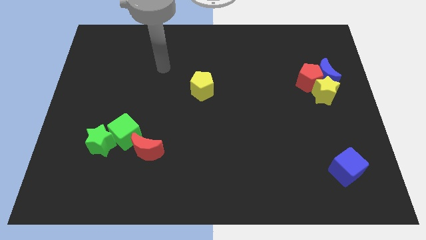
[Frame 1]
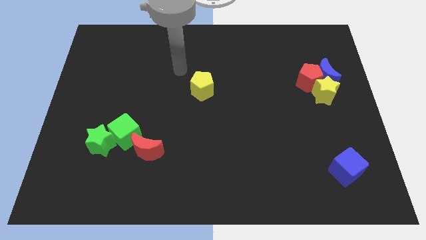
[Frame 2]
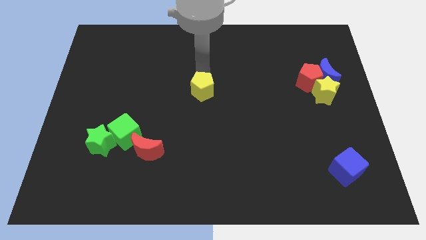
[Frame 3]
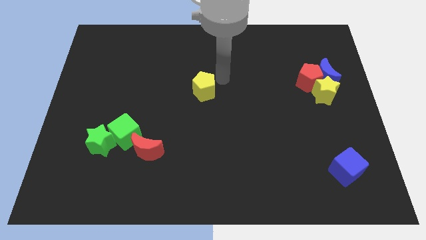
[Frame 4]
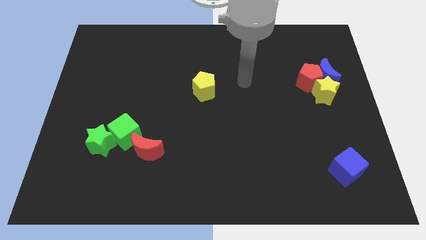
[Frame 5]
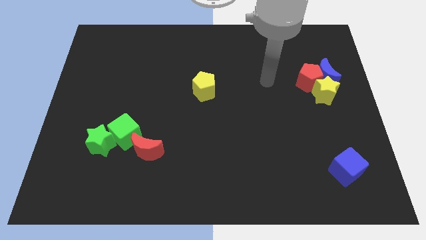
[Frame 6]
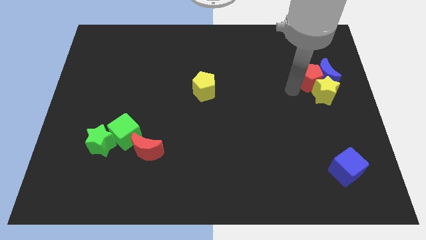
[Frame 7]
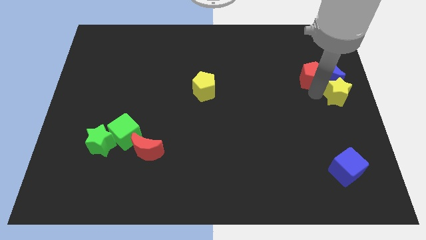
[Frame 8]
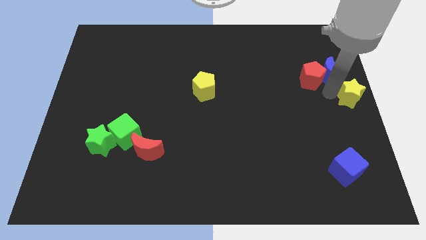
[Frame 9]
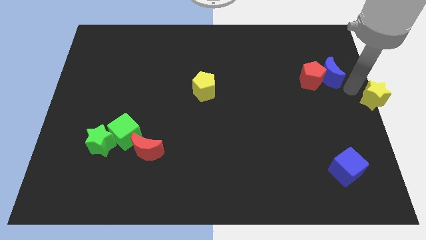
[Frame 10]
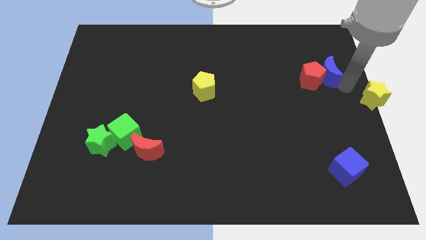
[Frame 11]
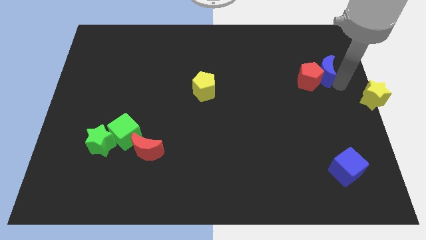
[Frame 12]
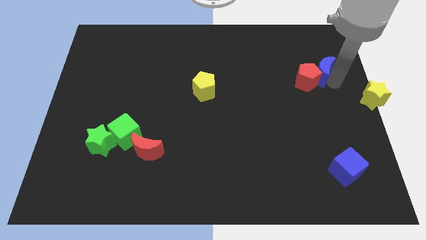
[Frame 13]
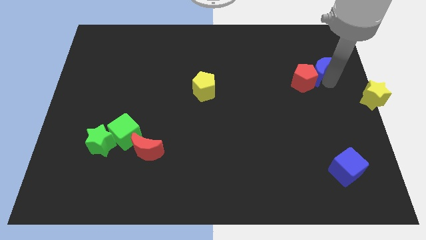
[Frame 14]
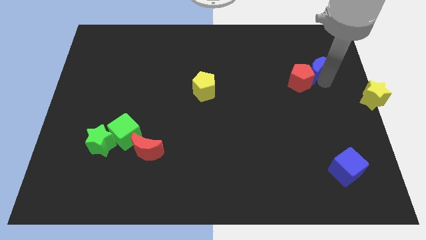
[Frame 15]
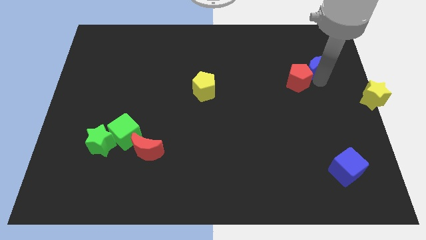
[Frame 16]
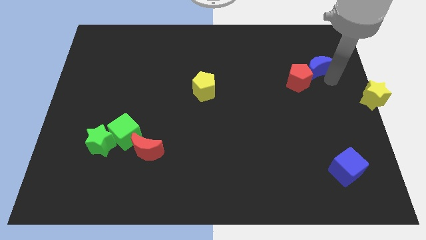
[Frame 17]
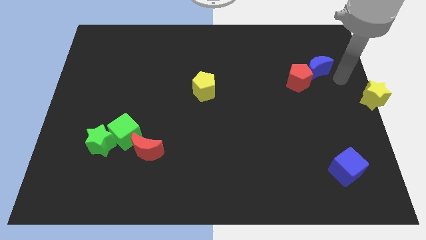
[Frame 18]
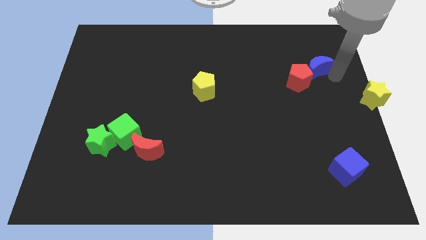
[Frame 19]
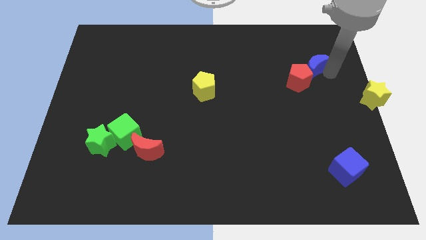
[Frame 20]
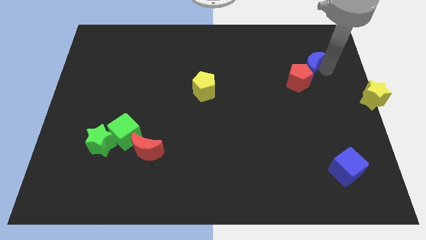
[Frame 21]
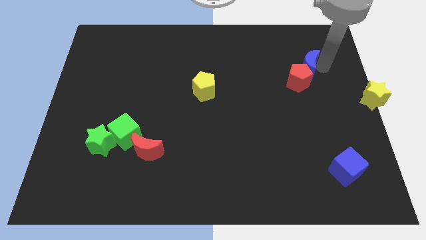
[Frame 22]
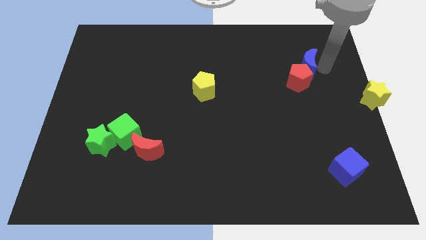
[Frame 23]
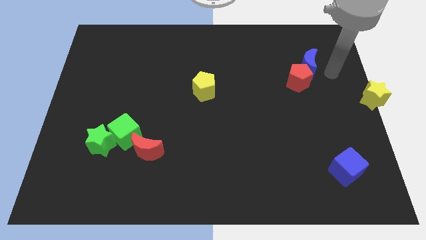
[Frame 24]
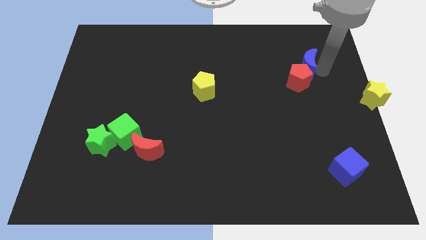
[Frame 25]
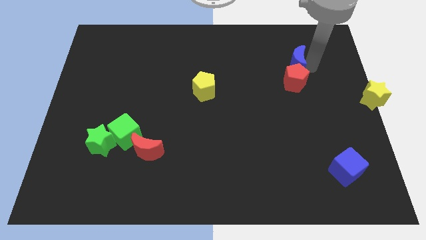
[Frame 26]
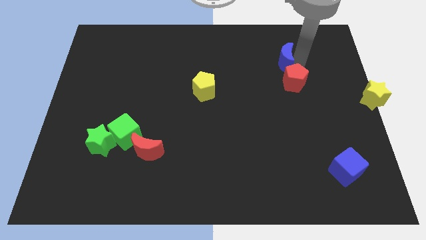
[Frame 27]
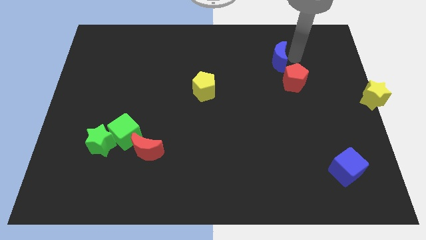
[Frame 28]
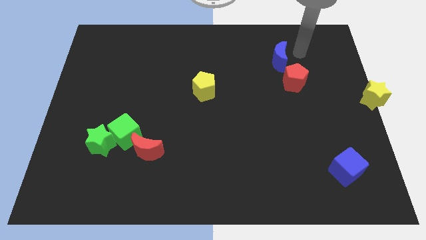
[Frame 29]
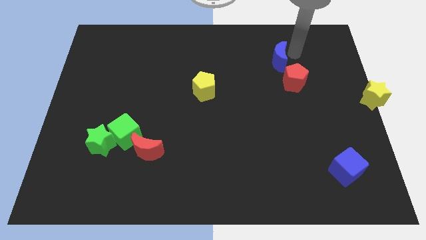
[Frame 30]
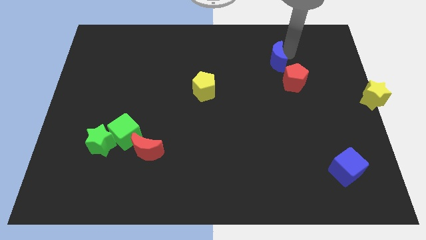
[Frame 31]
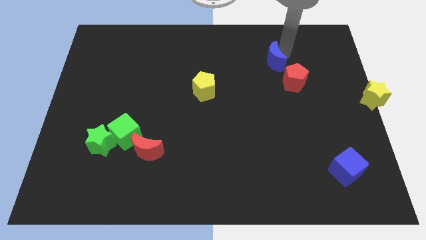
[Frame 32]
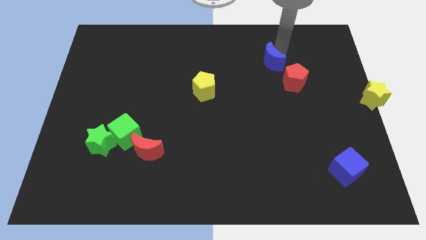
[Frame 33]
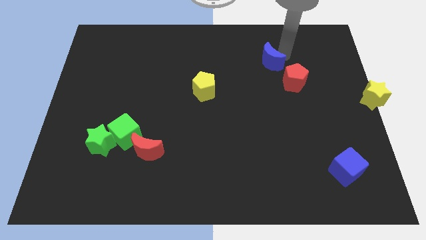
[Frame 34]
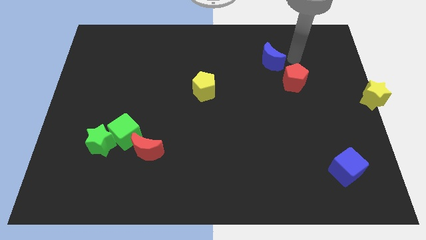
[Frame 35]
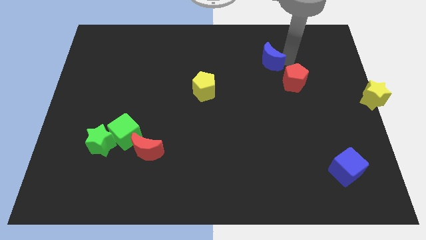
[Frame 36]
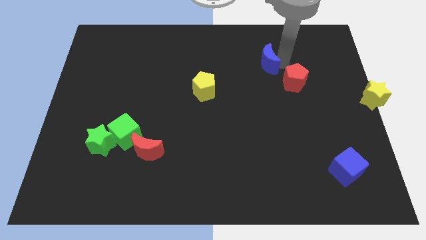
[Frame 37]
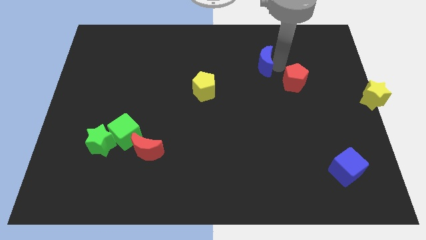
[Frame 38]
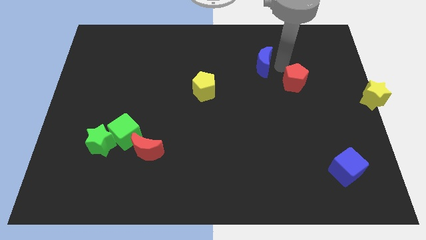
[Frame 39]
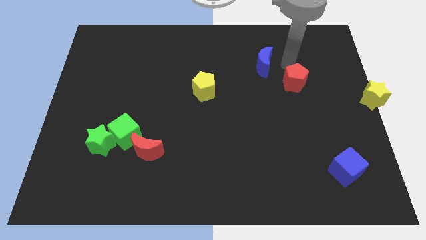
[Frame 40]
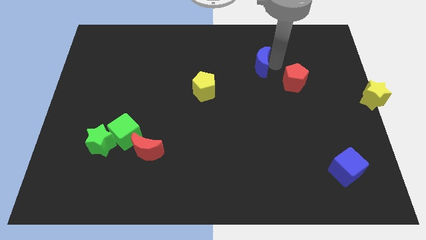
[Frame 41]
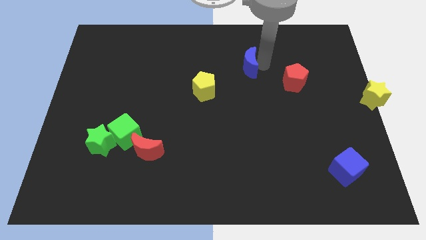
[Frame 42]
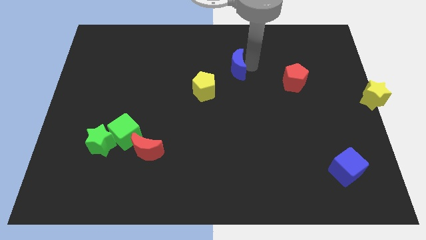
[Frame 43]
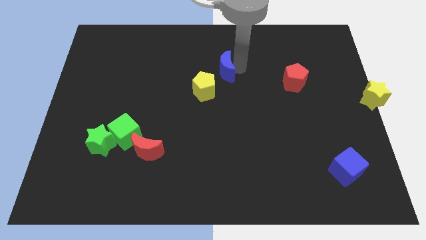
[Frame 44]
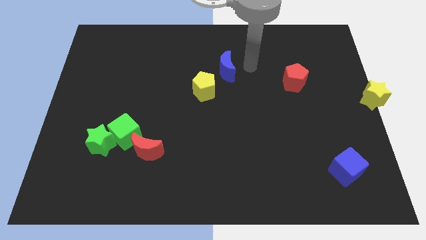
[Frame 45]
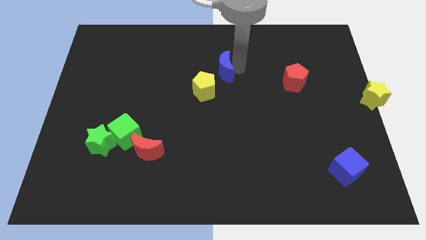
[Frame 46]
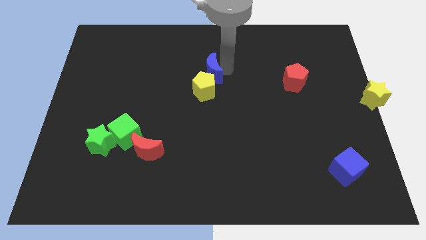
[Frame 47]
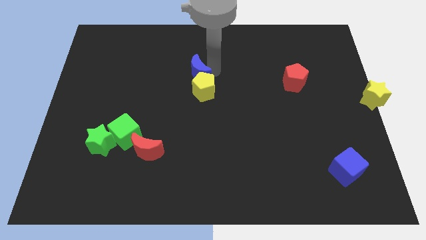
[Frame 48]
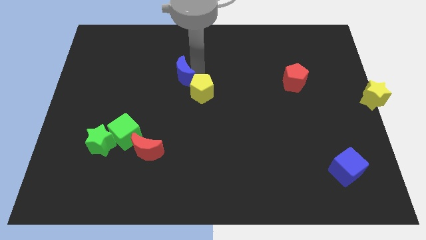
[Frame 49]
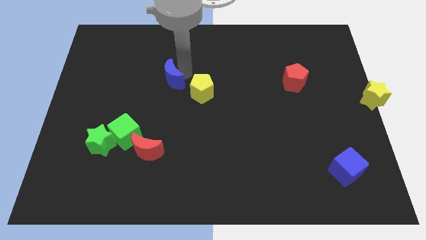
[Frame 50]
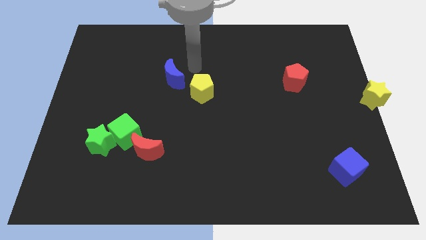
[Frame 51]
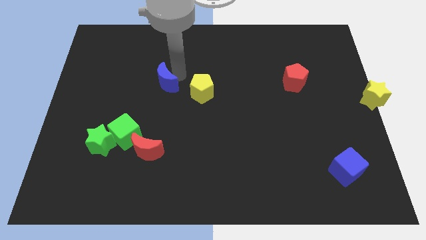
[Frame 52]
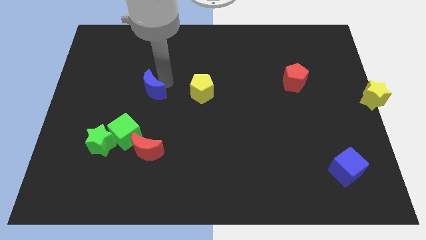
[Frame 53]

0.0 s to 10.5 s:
put the blue moon to the top of the green cube

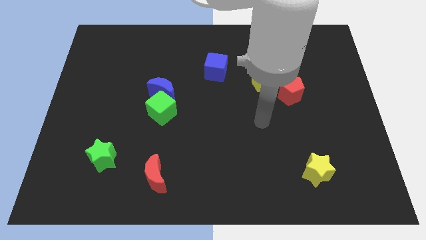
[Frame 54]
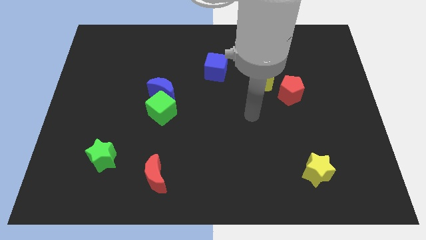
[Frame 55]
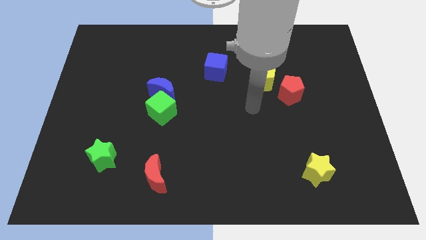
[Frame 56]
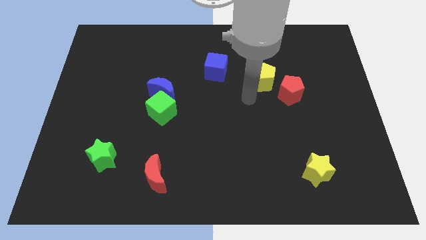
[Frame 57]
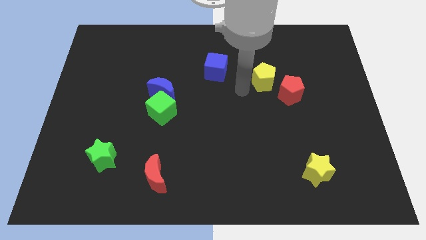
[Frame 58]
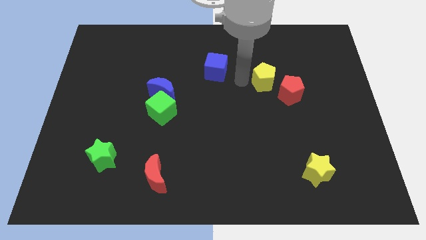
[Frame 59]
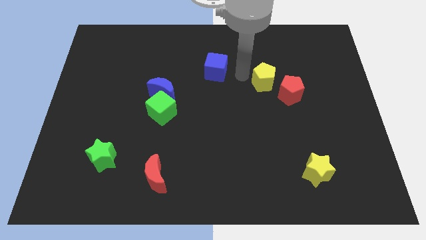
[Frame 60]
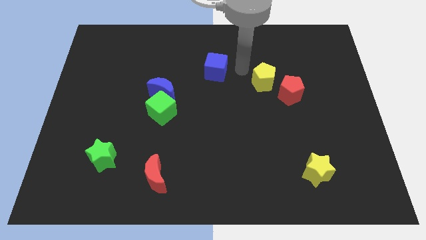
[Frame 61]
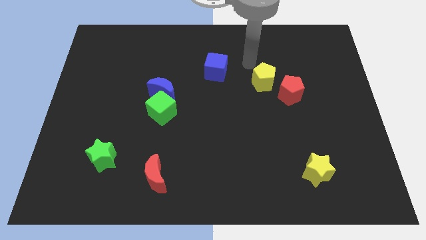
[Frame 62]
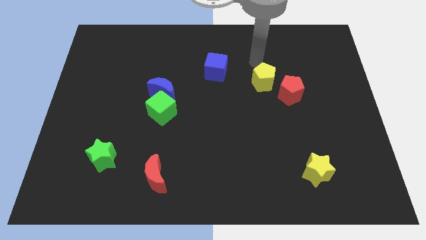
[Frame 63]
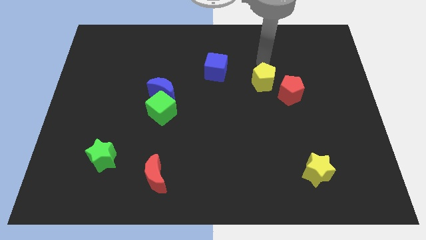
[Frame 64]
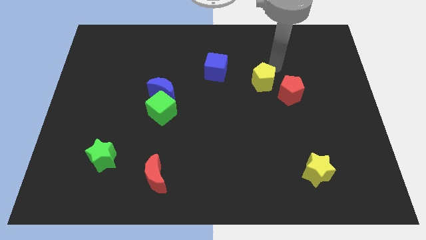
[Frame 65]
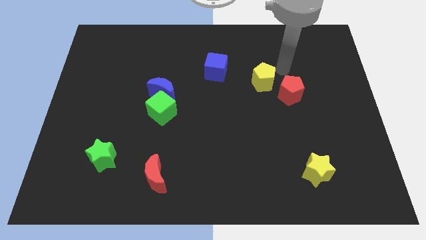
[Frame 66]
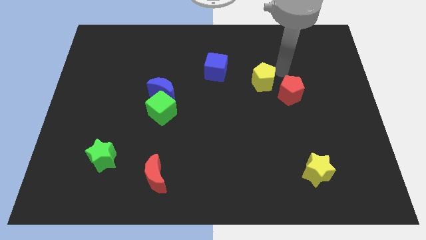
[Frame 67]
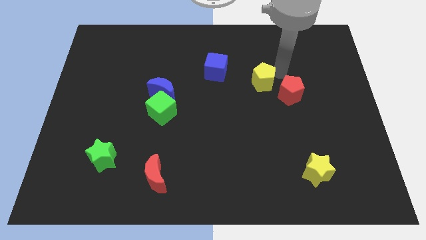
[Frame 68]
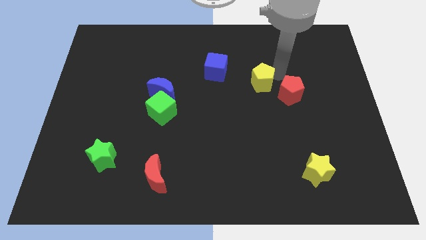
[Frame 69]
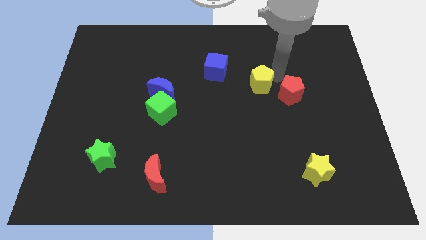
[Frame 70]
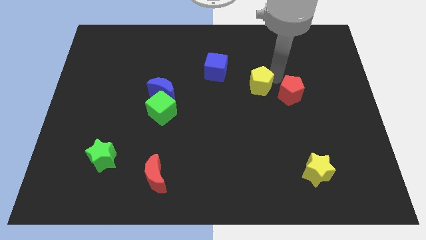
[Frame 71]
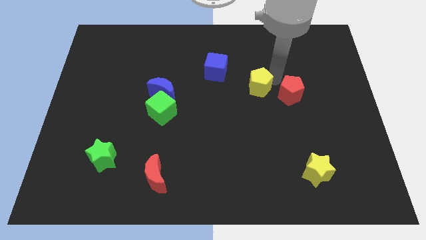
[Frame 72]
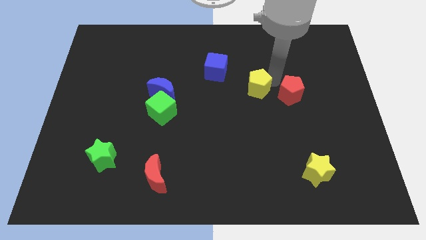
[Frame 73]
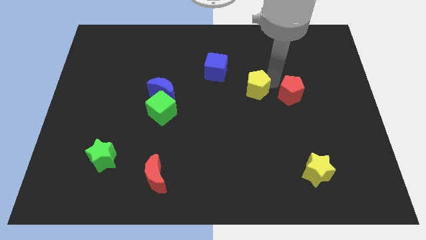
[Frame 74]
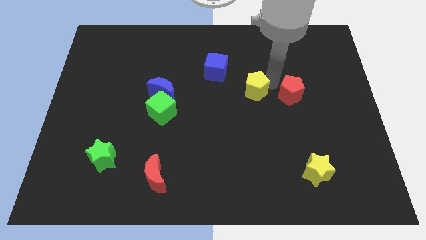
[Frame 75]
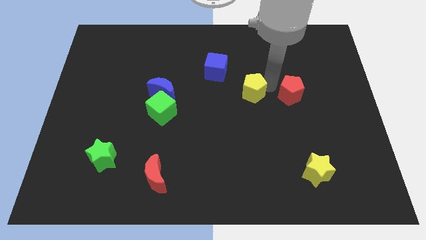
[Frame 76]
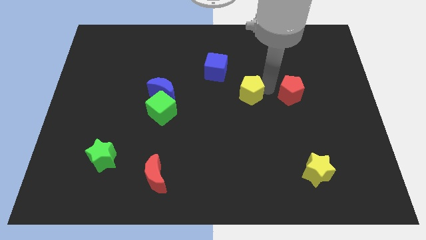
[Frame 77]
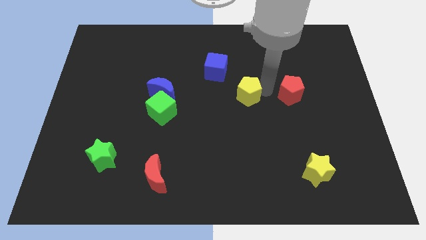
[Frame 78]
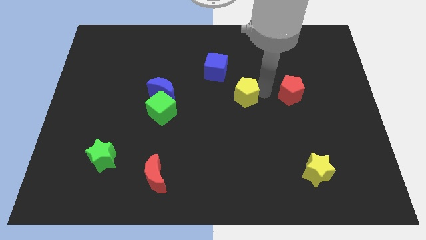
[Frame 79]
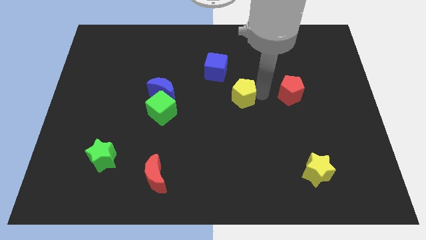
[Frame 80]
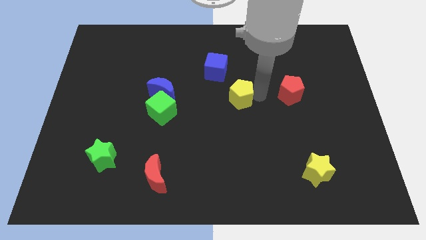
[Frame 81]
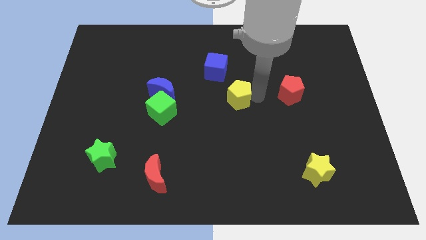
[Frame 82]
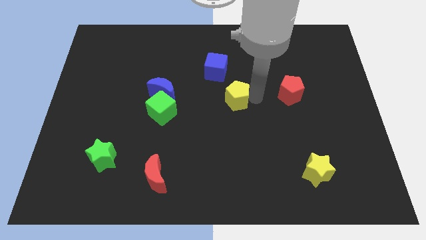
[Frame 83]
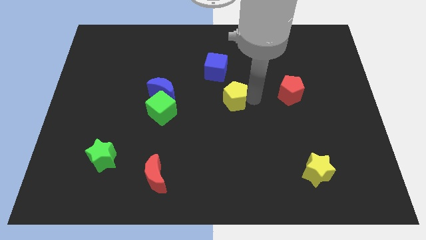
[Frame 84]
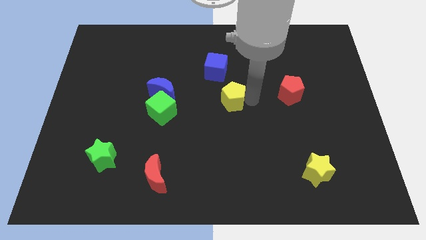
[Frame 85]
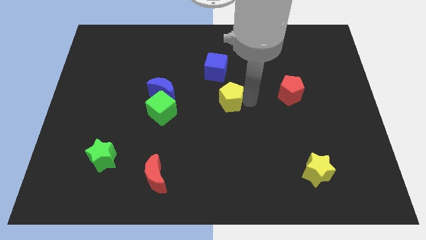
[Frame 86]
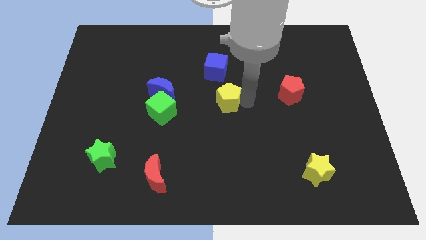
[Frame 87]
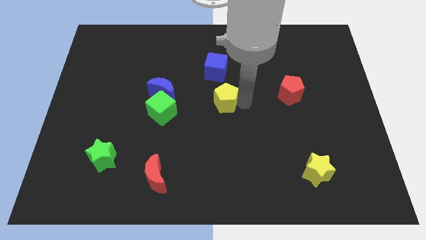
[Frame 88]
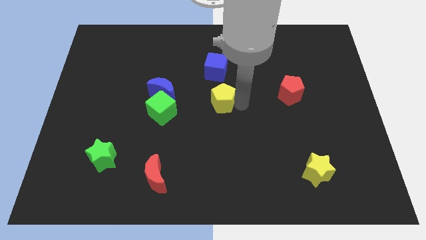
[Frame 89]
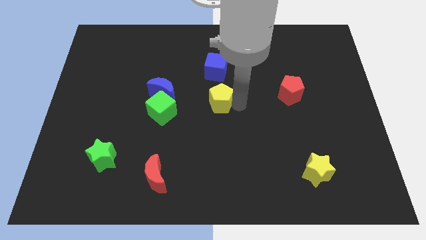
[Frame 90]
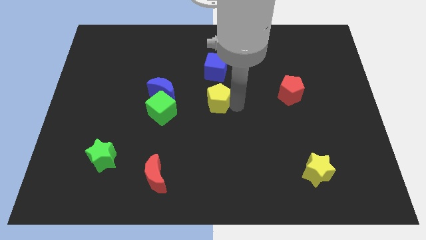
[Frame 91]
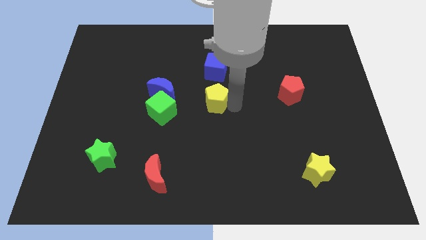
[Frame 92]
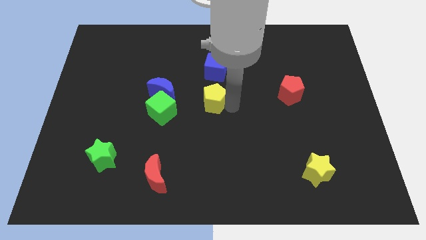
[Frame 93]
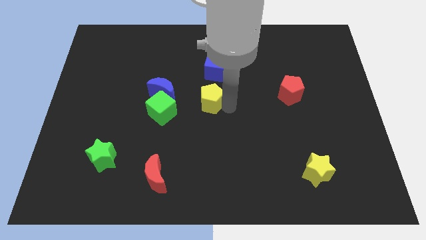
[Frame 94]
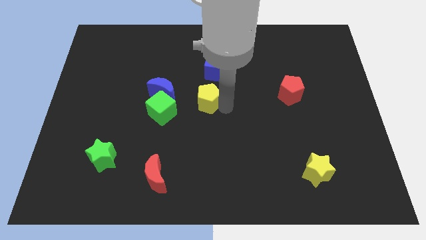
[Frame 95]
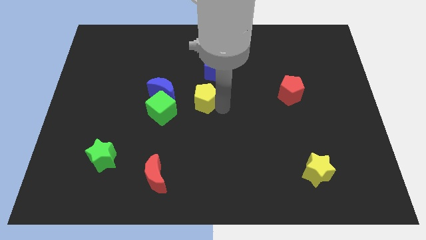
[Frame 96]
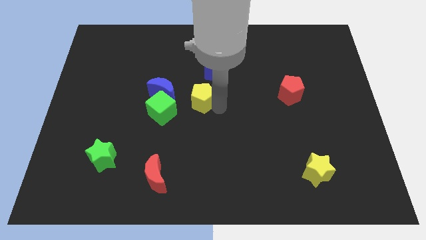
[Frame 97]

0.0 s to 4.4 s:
move the yellow pentagon to the top right side of the green cube
